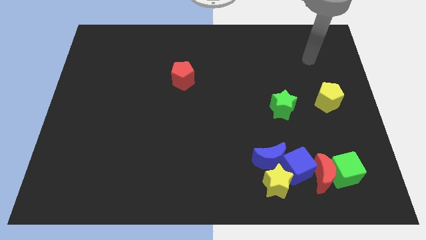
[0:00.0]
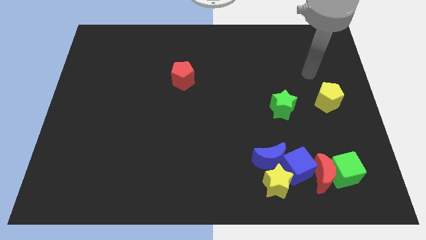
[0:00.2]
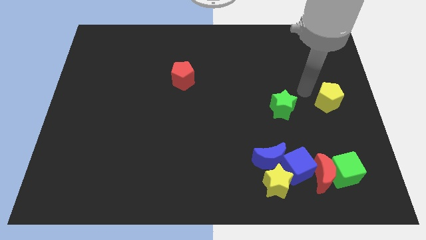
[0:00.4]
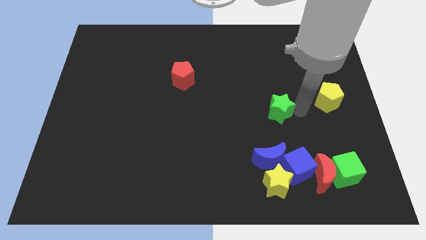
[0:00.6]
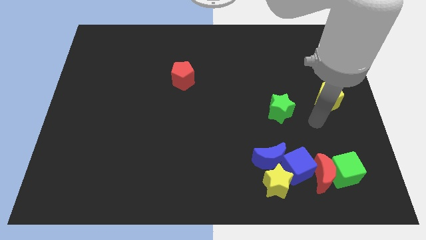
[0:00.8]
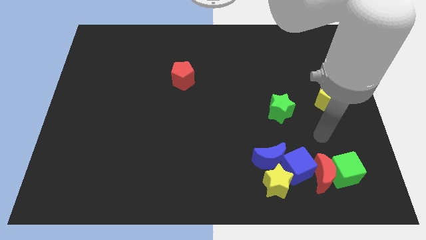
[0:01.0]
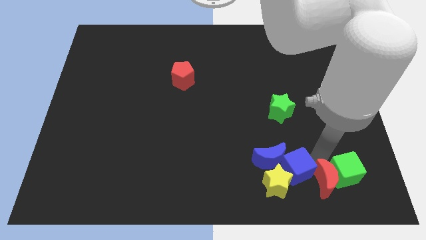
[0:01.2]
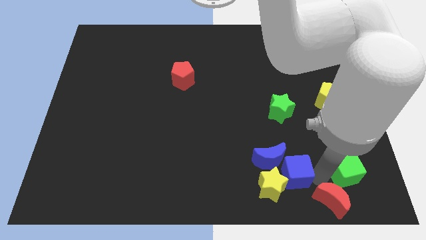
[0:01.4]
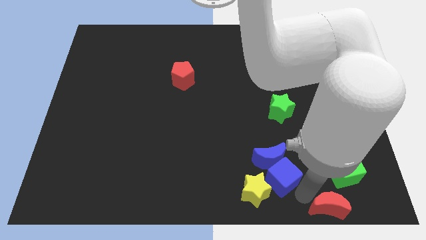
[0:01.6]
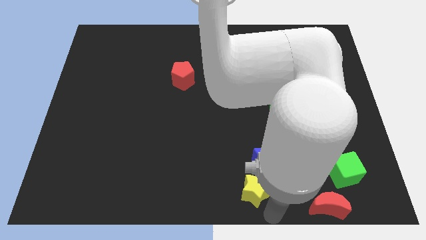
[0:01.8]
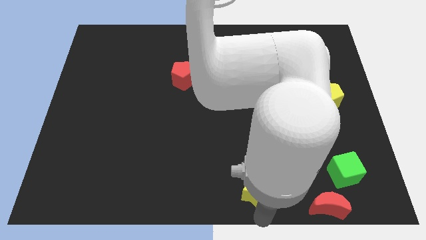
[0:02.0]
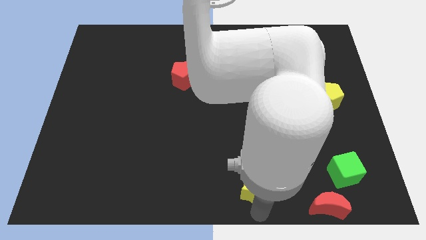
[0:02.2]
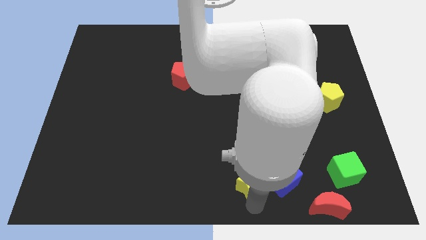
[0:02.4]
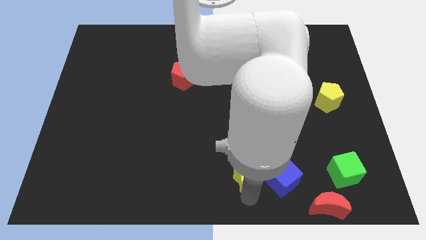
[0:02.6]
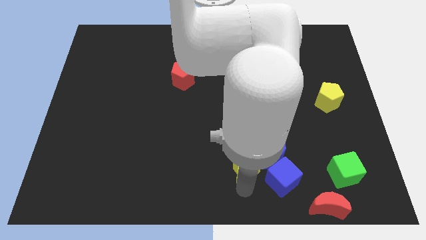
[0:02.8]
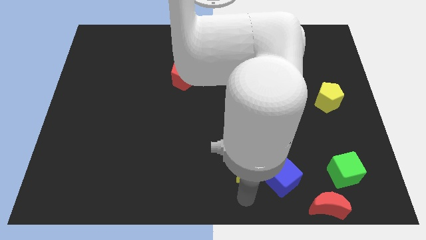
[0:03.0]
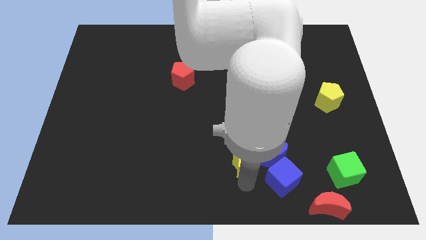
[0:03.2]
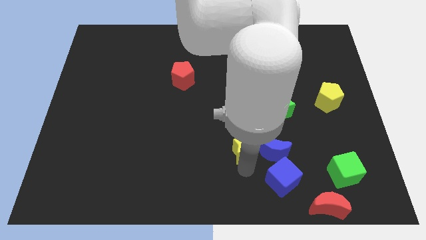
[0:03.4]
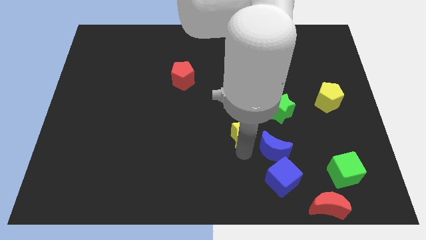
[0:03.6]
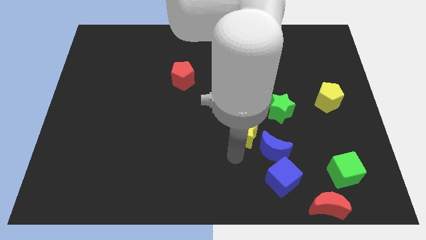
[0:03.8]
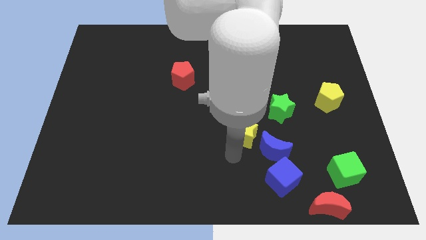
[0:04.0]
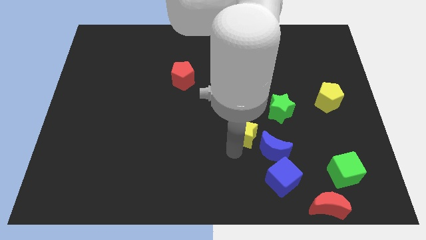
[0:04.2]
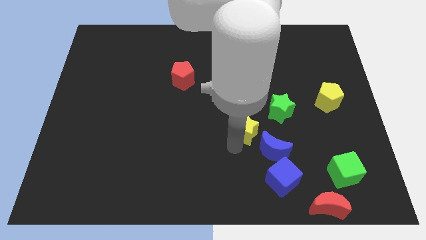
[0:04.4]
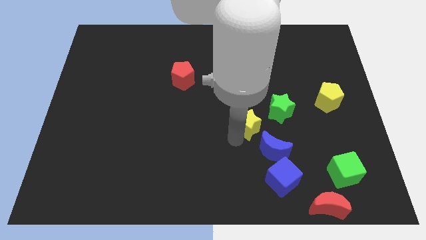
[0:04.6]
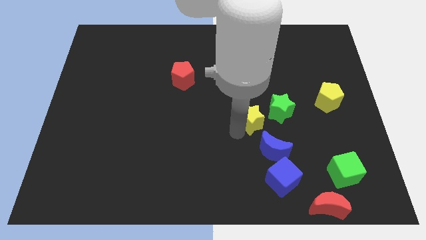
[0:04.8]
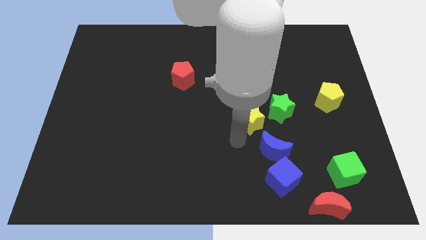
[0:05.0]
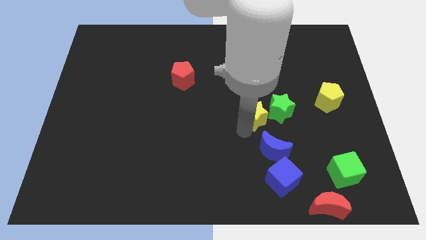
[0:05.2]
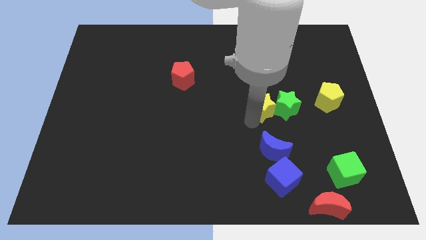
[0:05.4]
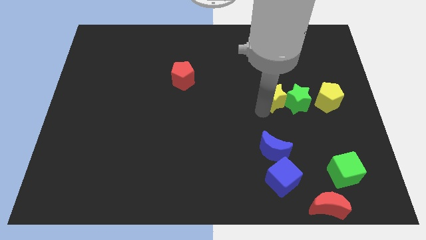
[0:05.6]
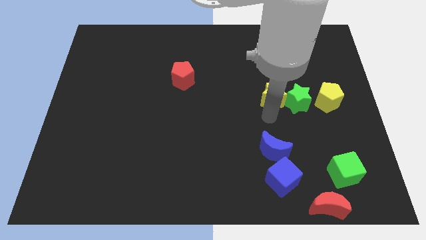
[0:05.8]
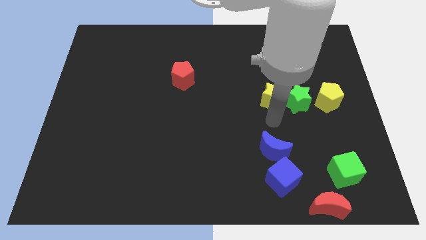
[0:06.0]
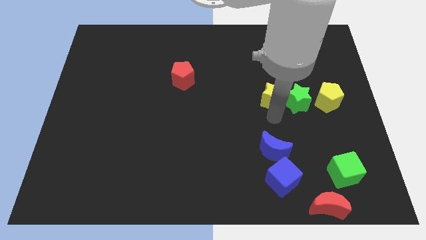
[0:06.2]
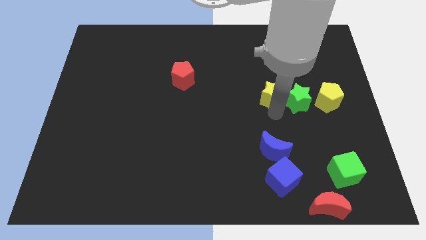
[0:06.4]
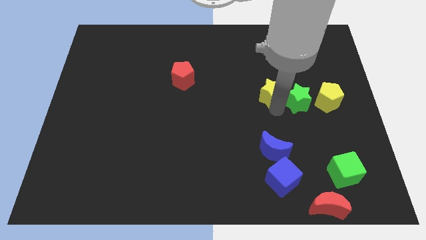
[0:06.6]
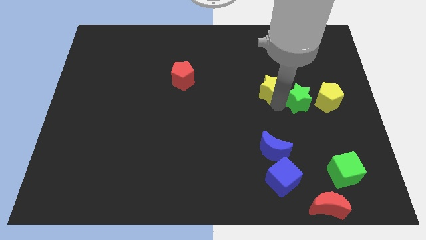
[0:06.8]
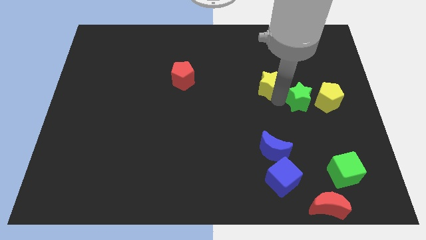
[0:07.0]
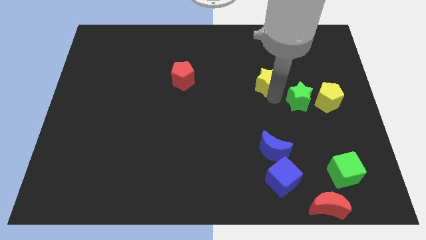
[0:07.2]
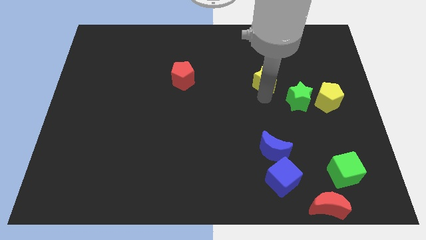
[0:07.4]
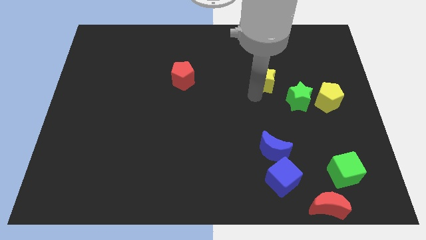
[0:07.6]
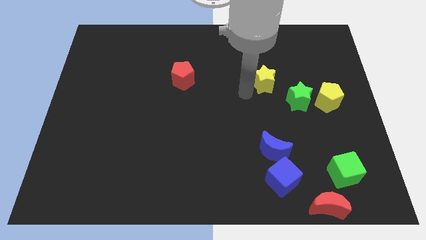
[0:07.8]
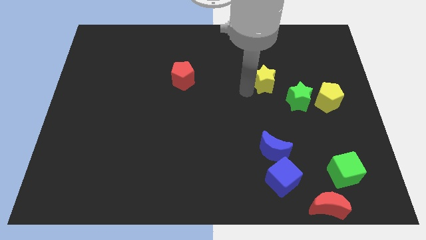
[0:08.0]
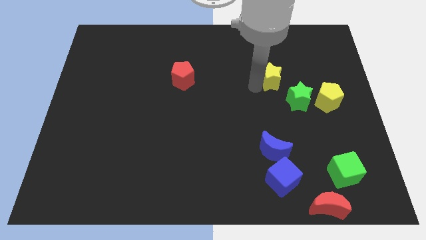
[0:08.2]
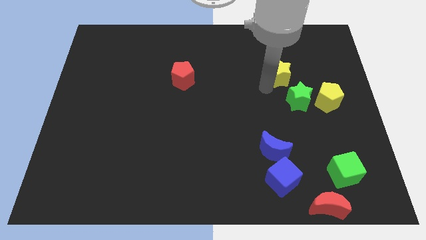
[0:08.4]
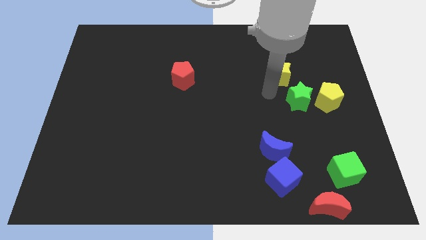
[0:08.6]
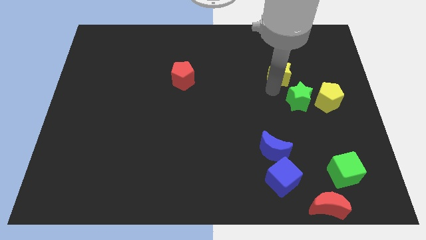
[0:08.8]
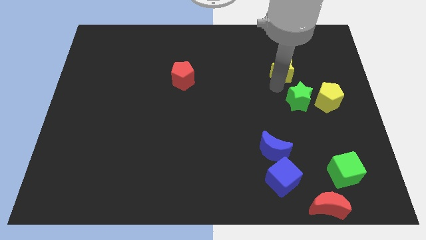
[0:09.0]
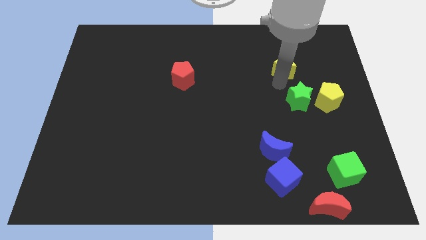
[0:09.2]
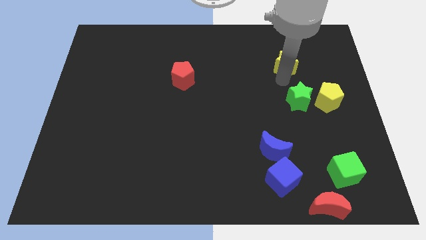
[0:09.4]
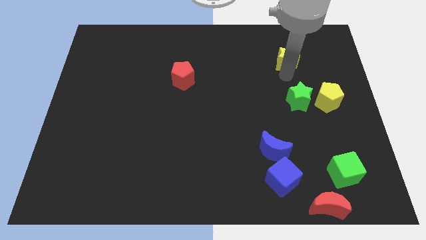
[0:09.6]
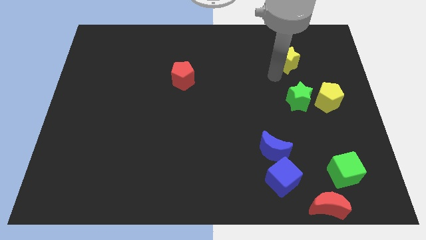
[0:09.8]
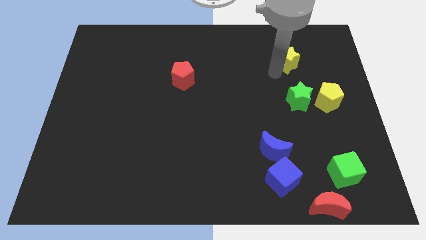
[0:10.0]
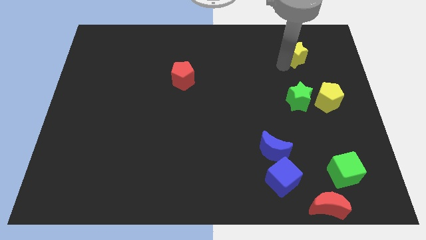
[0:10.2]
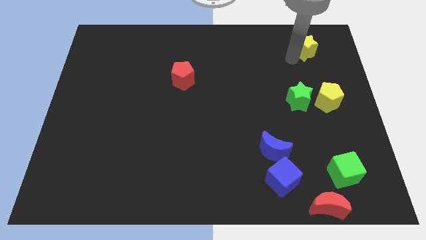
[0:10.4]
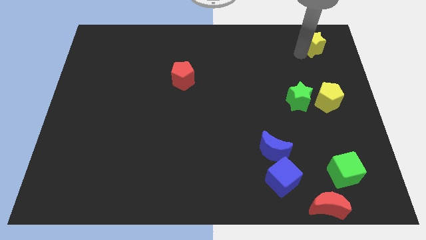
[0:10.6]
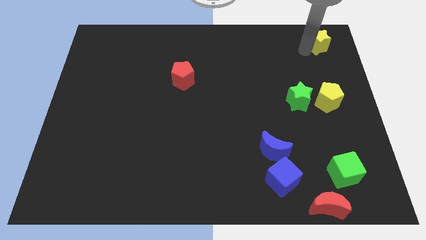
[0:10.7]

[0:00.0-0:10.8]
move the yellow star to the top right of the board

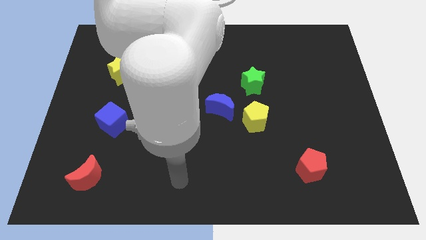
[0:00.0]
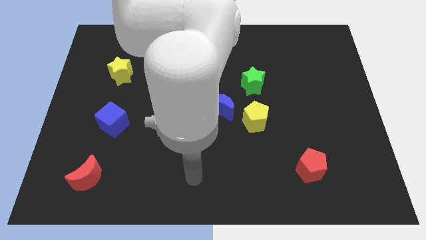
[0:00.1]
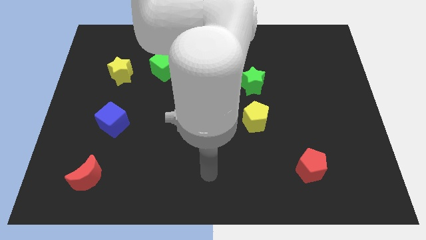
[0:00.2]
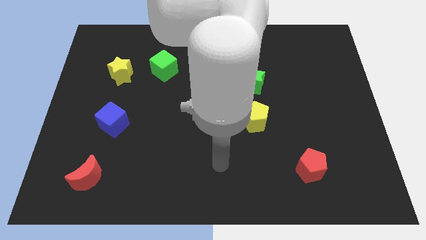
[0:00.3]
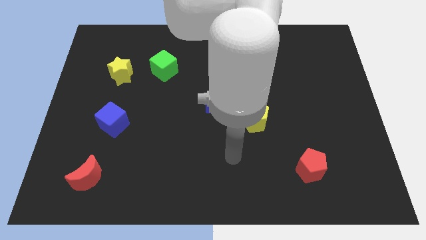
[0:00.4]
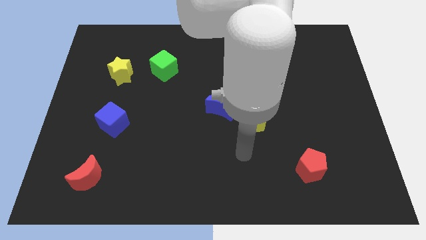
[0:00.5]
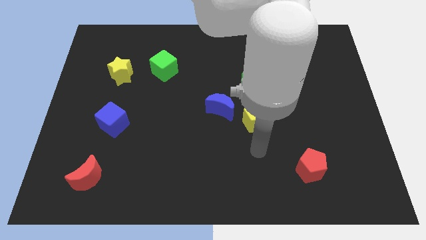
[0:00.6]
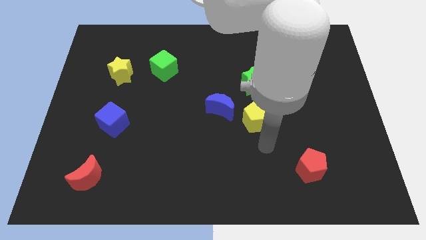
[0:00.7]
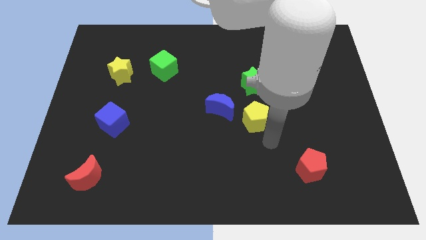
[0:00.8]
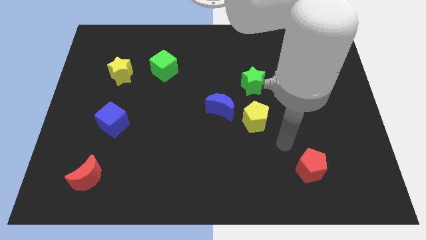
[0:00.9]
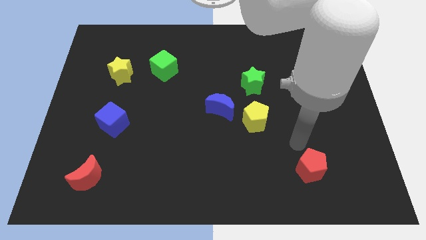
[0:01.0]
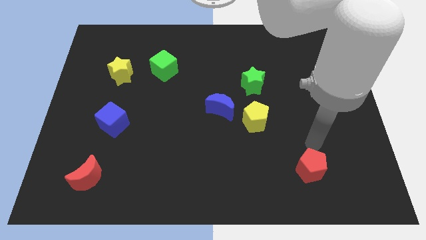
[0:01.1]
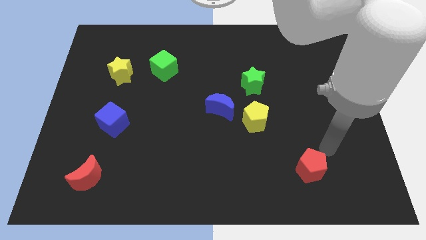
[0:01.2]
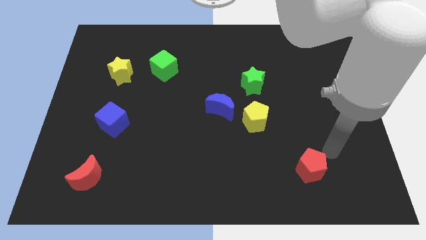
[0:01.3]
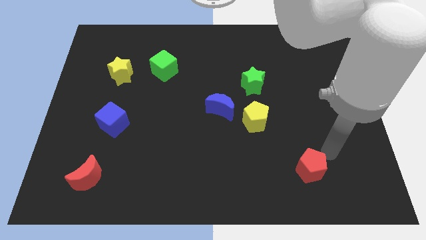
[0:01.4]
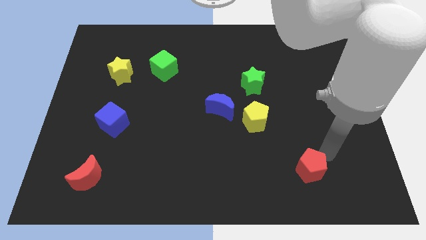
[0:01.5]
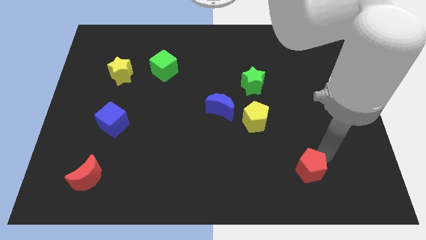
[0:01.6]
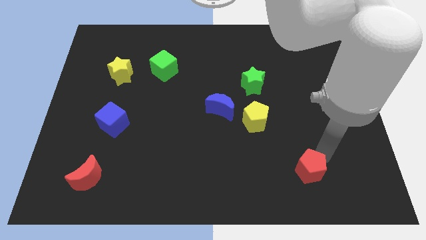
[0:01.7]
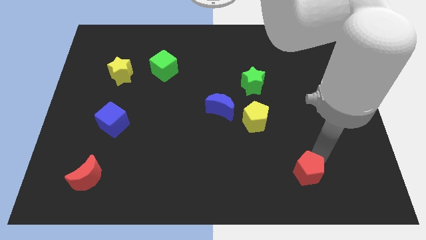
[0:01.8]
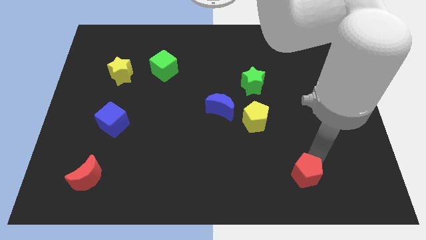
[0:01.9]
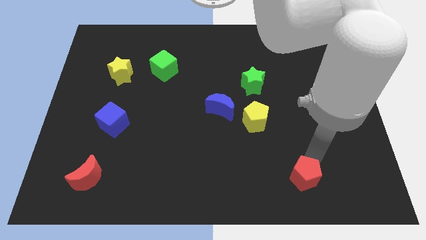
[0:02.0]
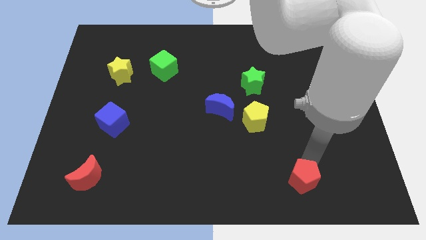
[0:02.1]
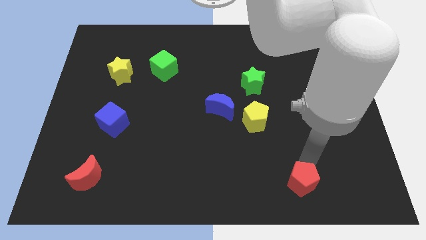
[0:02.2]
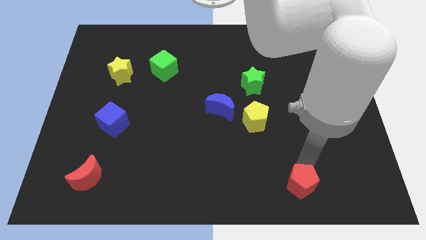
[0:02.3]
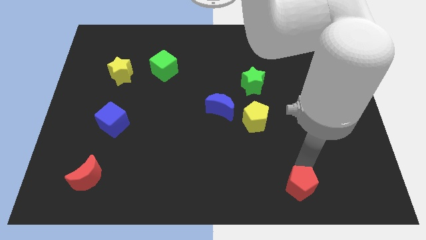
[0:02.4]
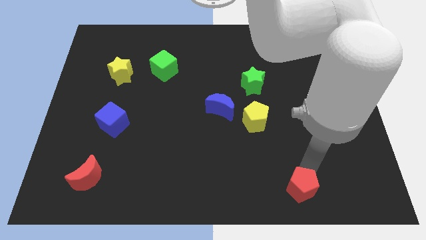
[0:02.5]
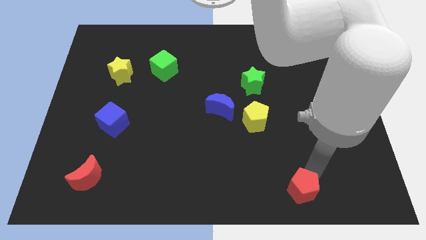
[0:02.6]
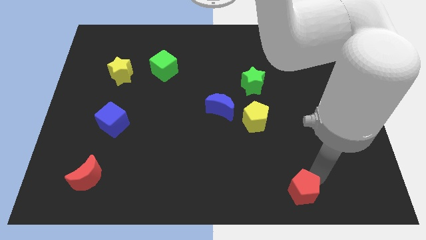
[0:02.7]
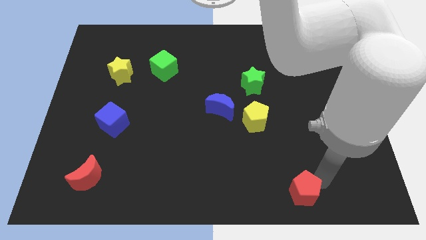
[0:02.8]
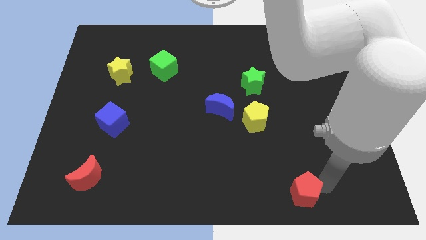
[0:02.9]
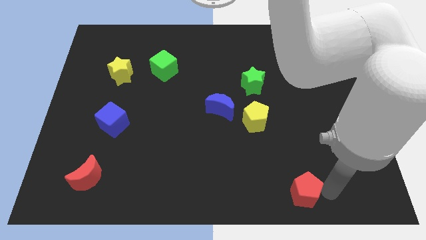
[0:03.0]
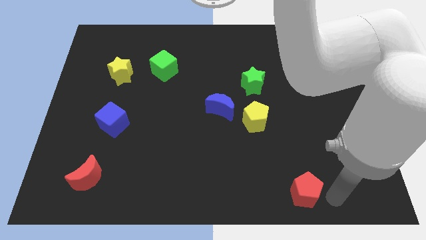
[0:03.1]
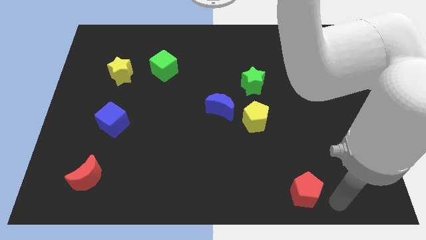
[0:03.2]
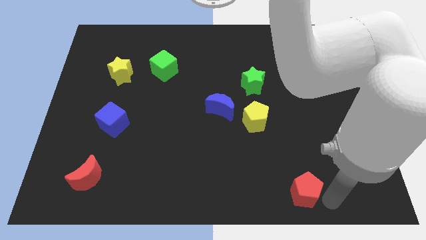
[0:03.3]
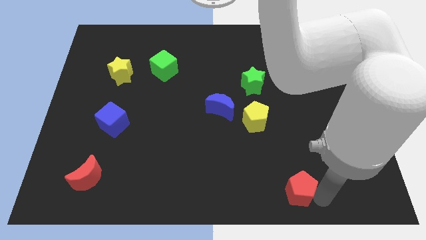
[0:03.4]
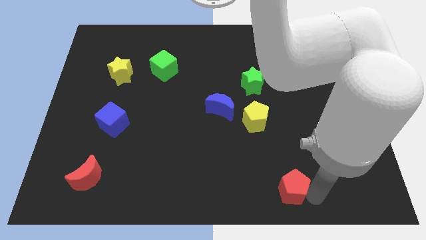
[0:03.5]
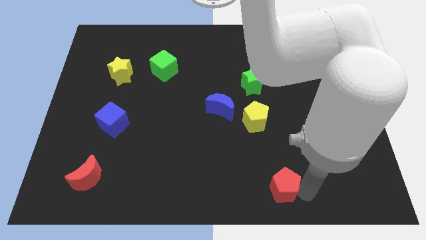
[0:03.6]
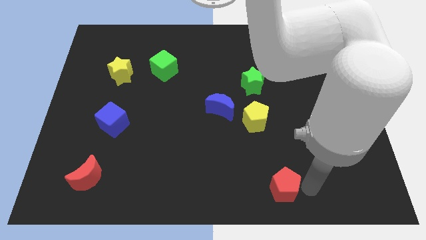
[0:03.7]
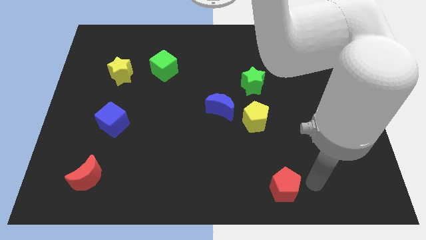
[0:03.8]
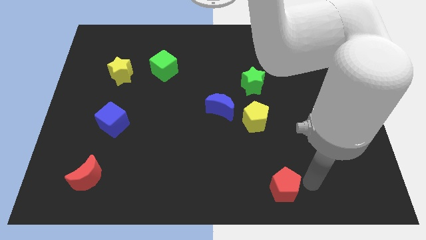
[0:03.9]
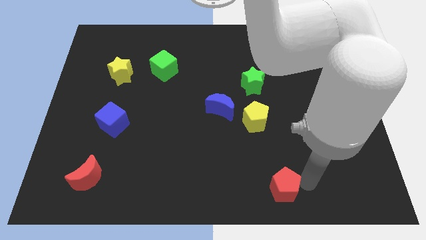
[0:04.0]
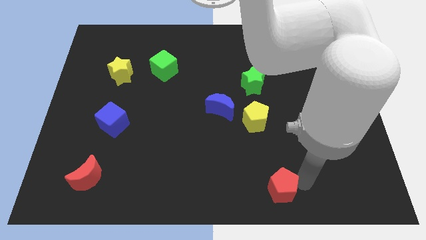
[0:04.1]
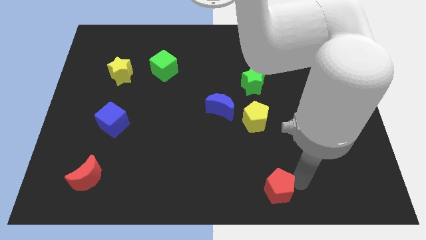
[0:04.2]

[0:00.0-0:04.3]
put the red pentagon to the bottom
